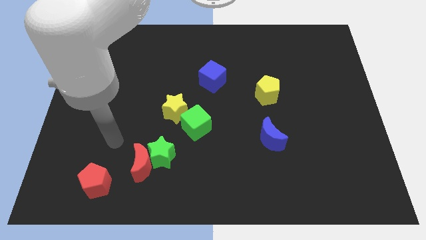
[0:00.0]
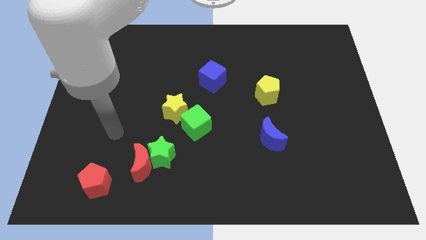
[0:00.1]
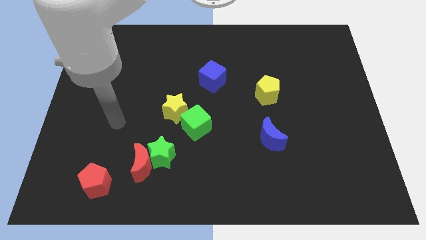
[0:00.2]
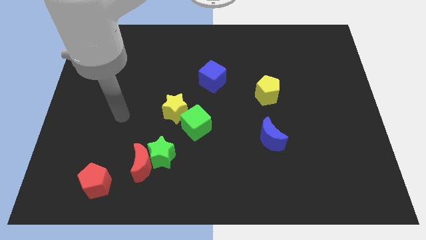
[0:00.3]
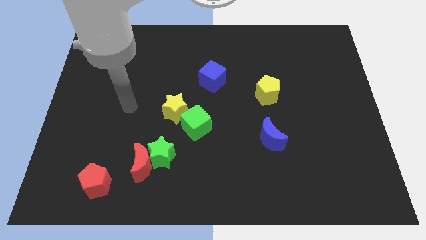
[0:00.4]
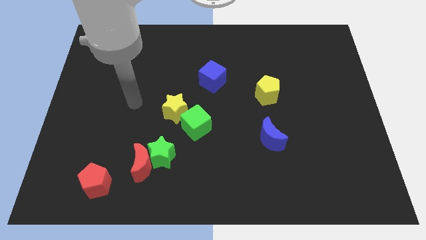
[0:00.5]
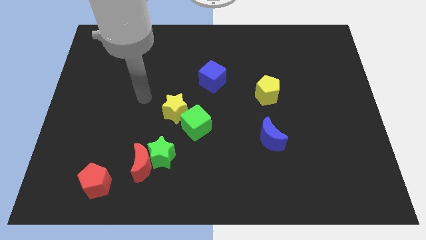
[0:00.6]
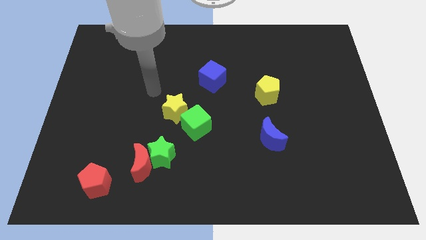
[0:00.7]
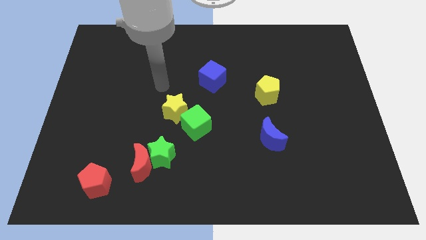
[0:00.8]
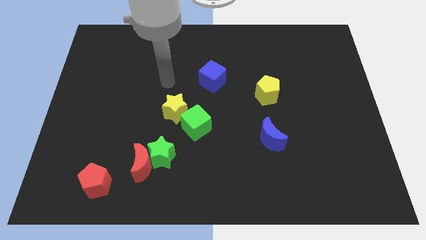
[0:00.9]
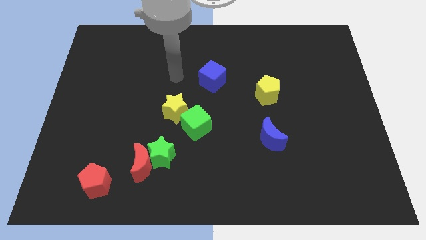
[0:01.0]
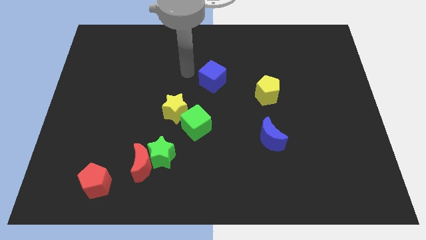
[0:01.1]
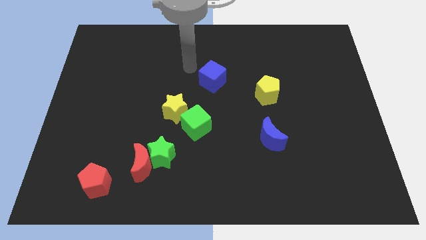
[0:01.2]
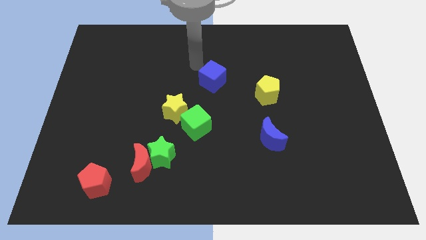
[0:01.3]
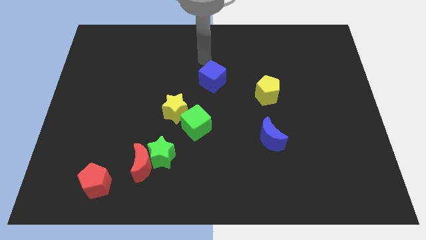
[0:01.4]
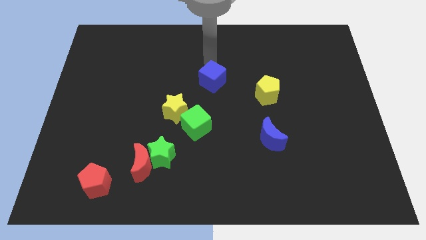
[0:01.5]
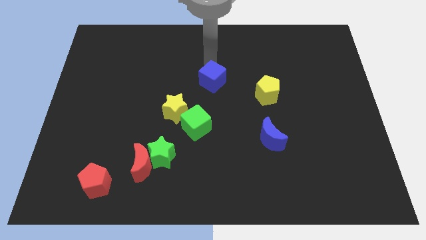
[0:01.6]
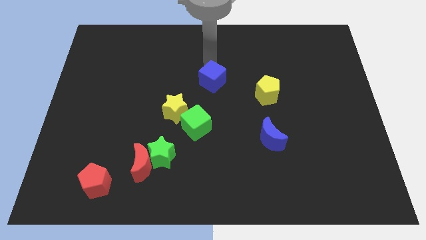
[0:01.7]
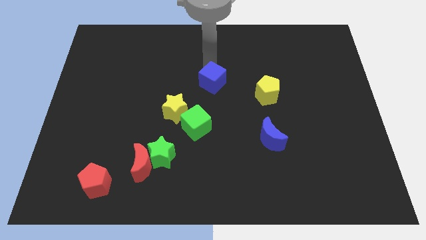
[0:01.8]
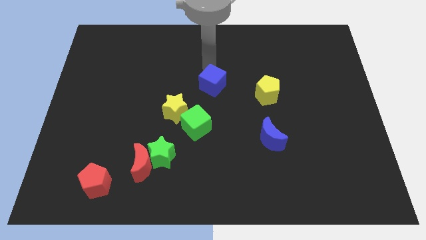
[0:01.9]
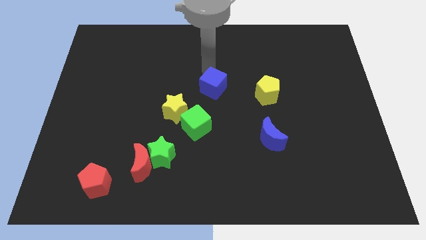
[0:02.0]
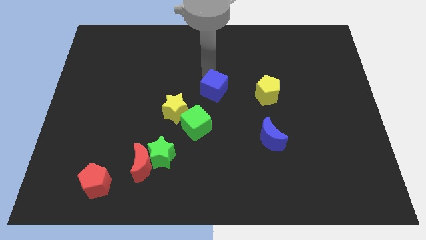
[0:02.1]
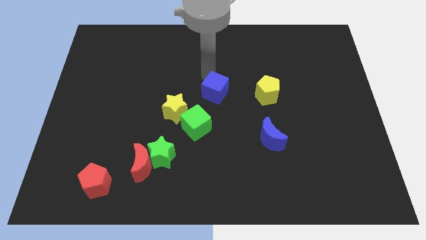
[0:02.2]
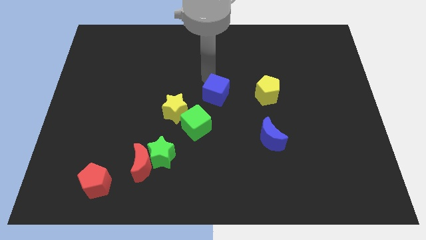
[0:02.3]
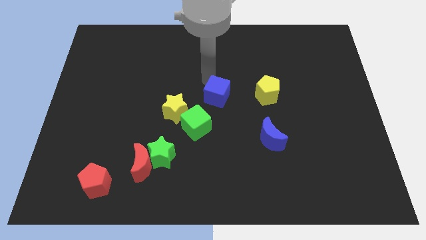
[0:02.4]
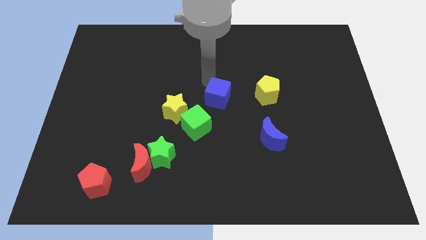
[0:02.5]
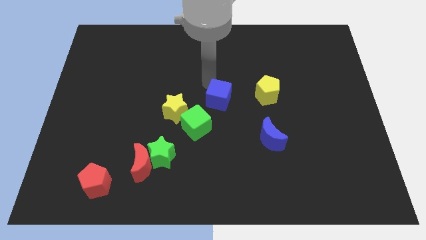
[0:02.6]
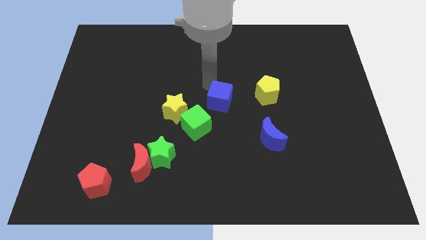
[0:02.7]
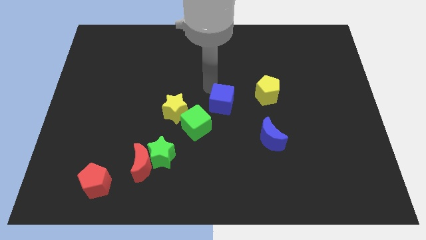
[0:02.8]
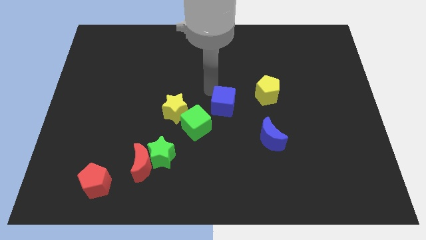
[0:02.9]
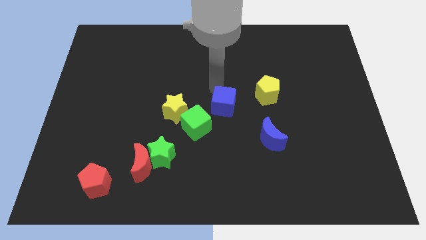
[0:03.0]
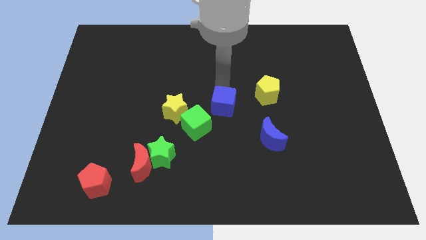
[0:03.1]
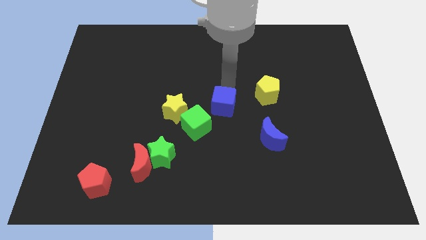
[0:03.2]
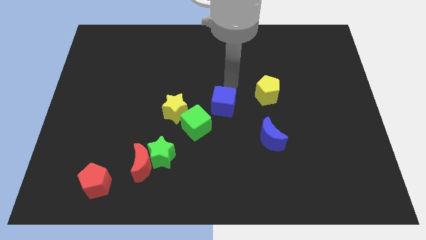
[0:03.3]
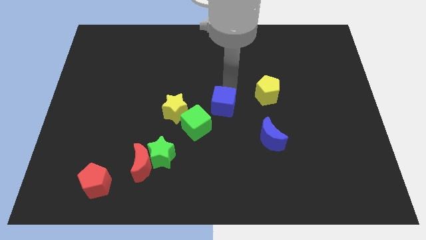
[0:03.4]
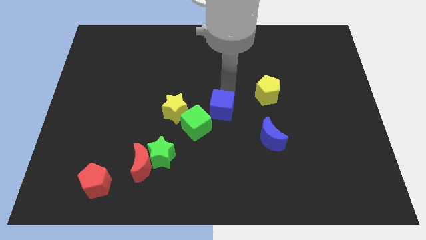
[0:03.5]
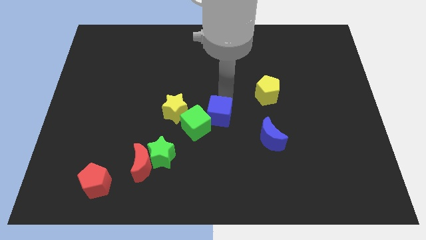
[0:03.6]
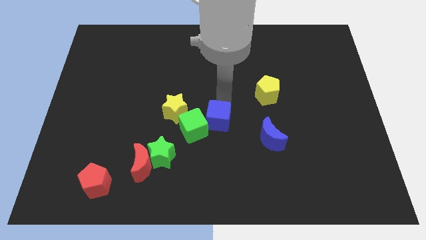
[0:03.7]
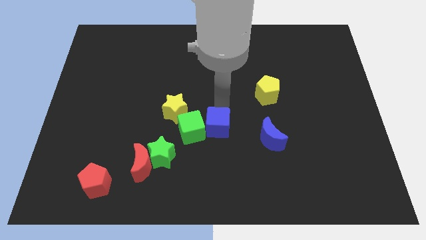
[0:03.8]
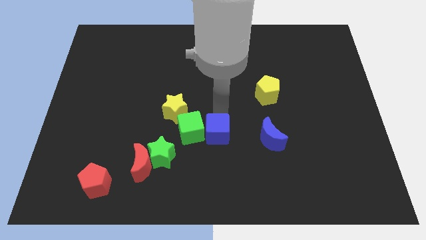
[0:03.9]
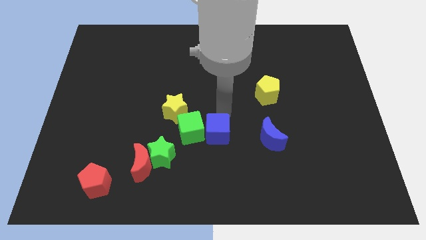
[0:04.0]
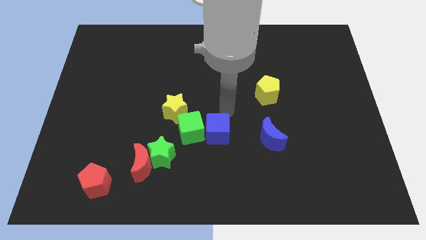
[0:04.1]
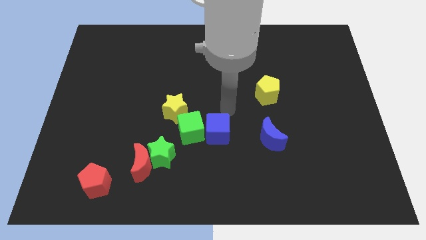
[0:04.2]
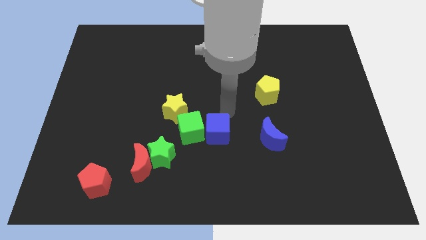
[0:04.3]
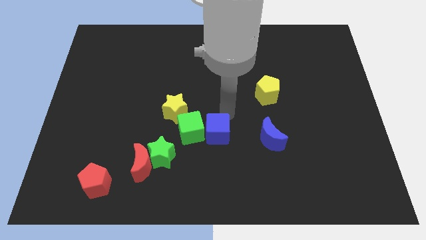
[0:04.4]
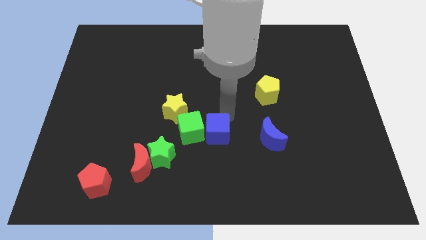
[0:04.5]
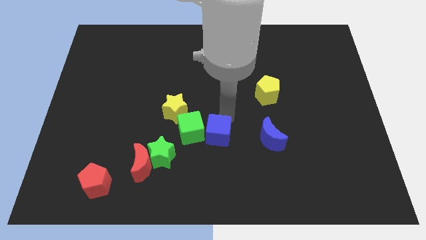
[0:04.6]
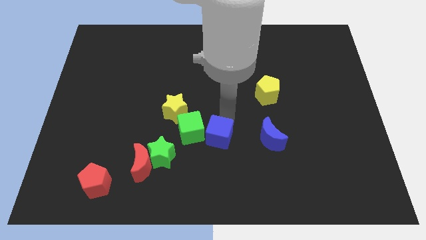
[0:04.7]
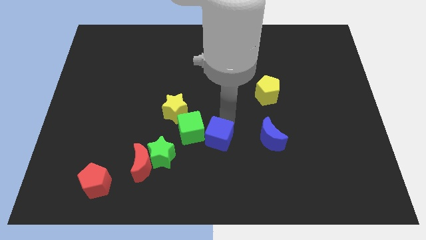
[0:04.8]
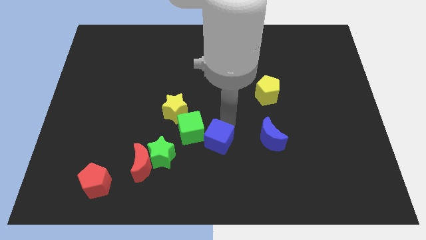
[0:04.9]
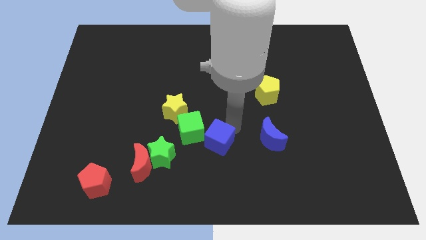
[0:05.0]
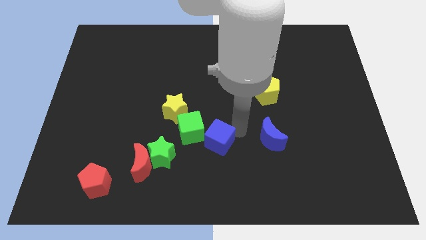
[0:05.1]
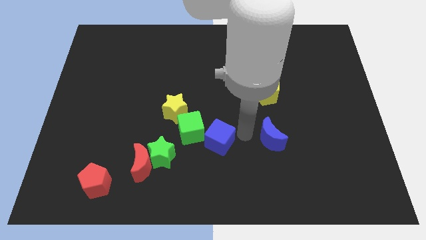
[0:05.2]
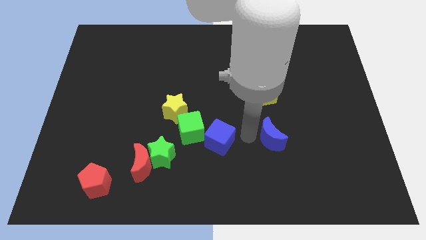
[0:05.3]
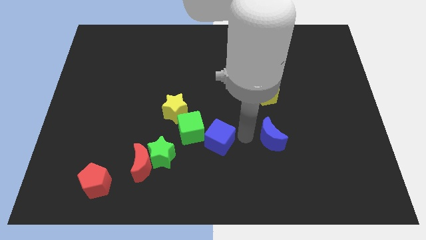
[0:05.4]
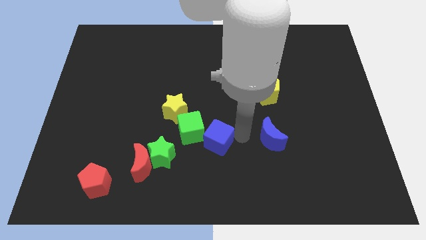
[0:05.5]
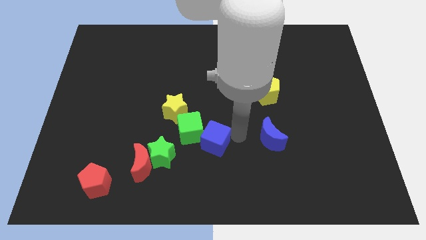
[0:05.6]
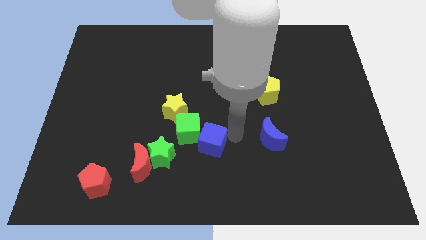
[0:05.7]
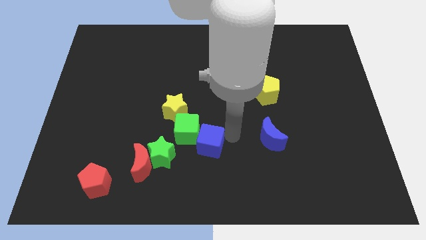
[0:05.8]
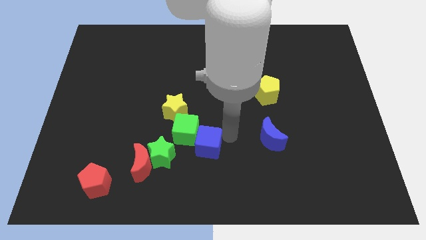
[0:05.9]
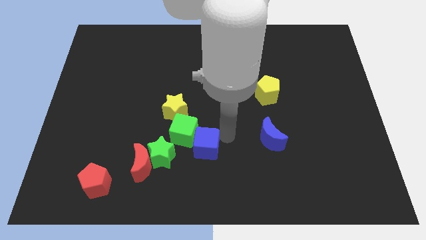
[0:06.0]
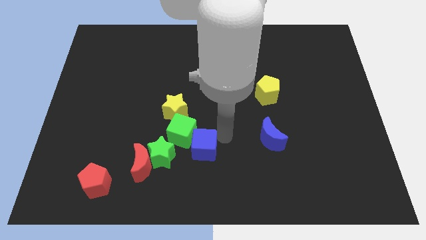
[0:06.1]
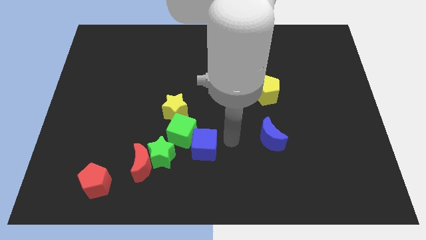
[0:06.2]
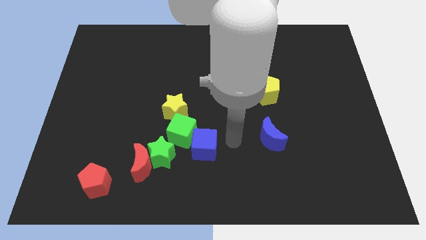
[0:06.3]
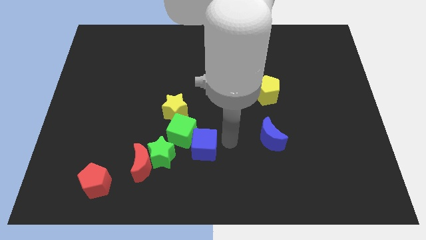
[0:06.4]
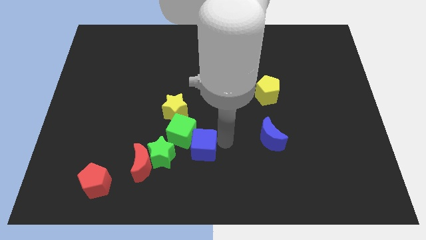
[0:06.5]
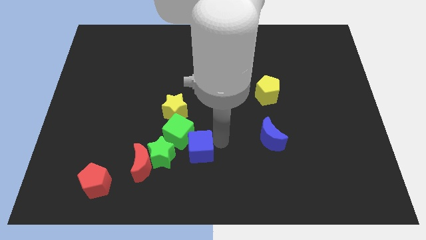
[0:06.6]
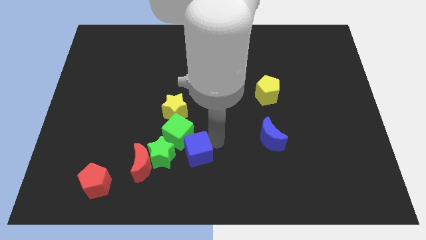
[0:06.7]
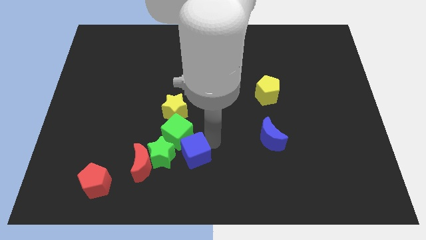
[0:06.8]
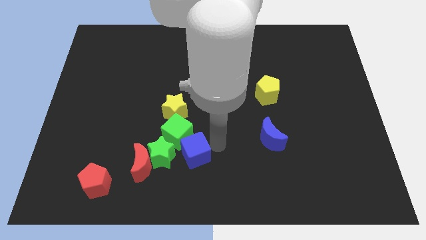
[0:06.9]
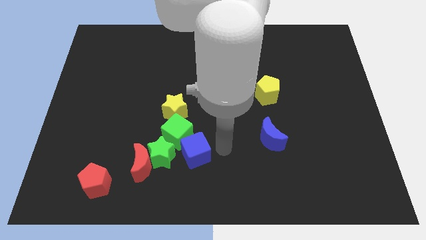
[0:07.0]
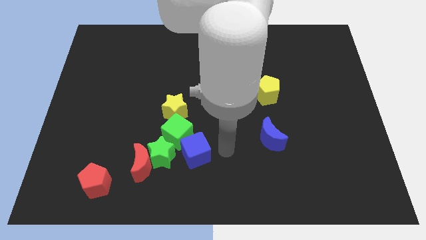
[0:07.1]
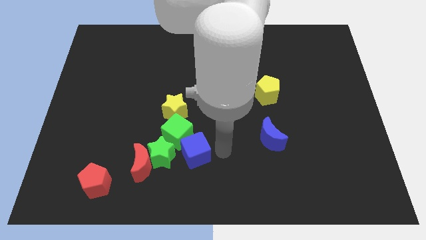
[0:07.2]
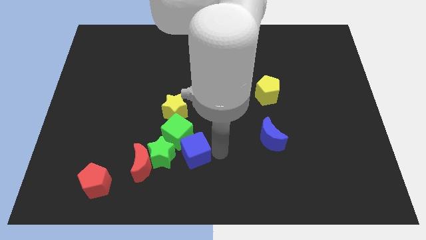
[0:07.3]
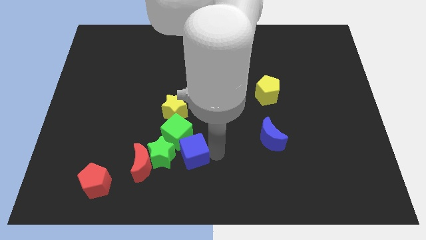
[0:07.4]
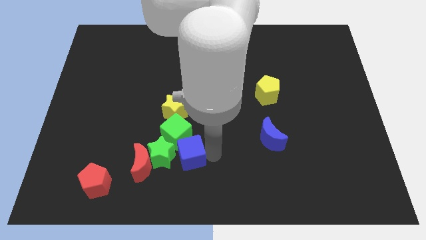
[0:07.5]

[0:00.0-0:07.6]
put the blue cube to the green star
